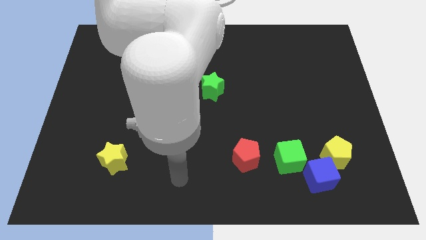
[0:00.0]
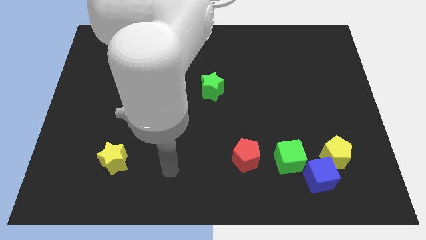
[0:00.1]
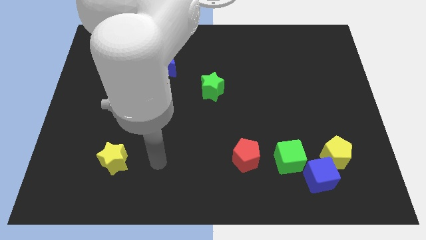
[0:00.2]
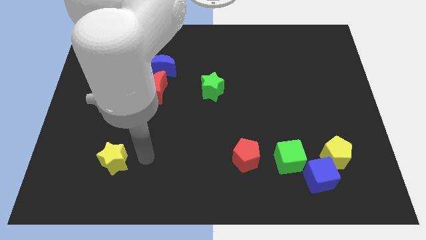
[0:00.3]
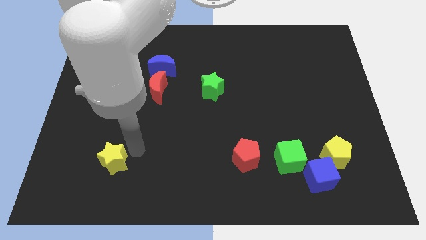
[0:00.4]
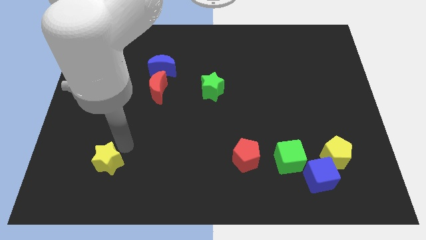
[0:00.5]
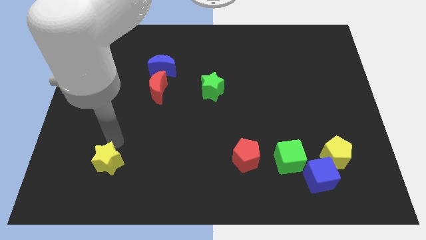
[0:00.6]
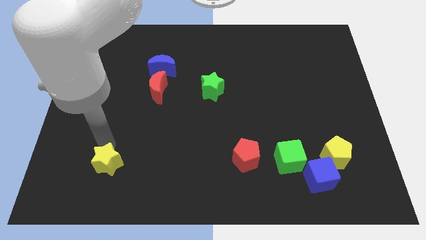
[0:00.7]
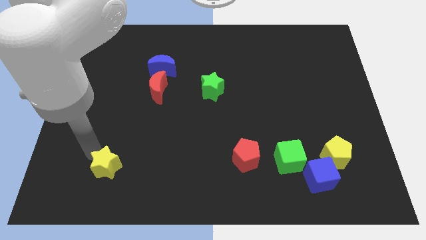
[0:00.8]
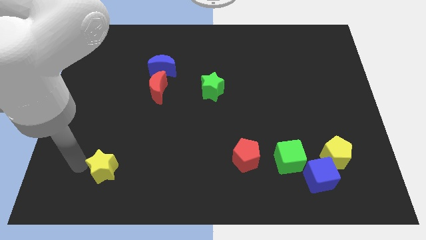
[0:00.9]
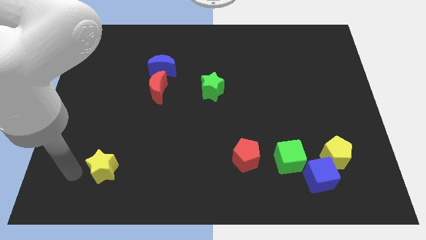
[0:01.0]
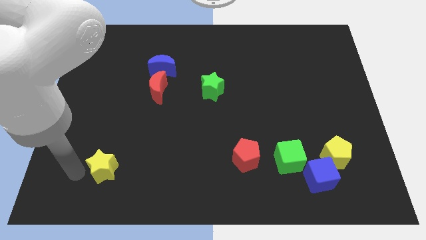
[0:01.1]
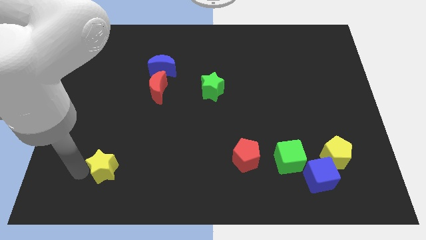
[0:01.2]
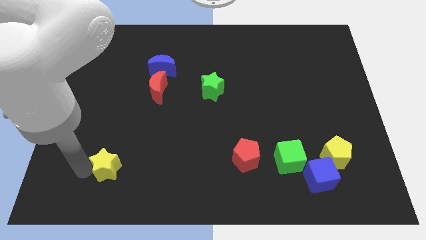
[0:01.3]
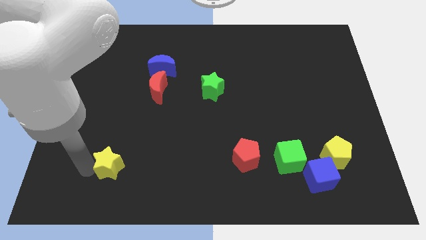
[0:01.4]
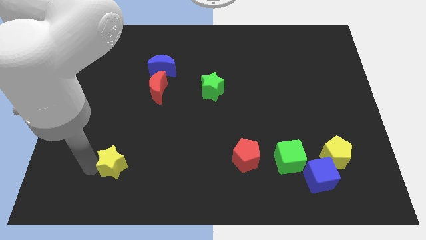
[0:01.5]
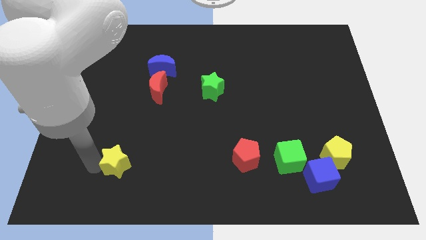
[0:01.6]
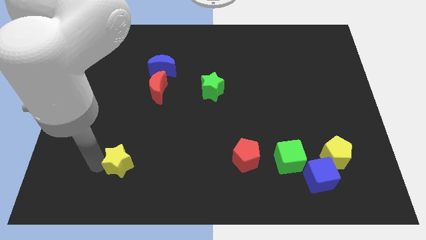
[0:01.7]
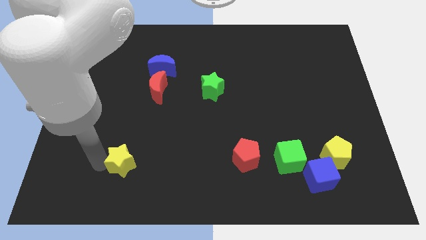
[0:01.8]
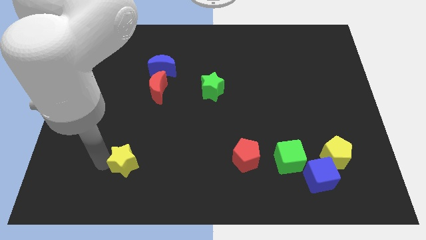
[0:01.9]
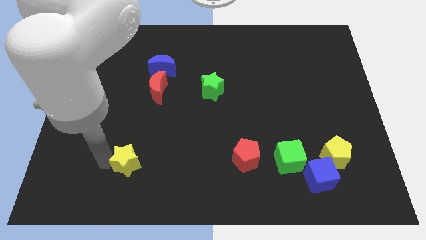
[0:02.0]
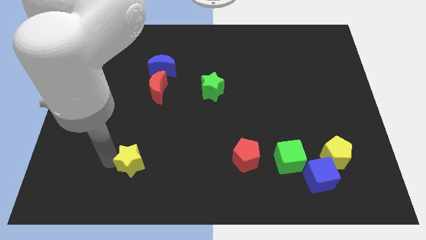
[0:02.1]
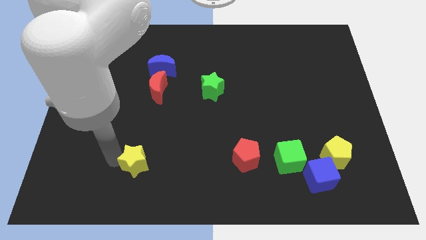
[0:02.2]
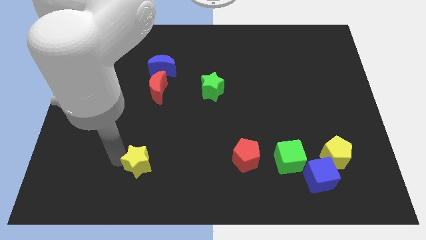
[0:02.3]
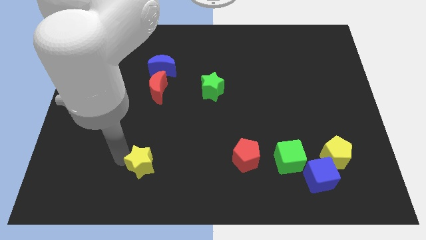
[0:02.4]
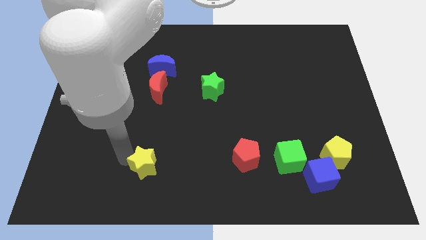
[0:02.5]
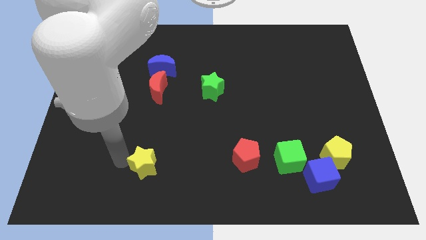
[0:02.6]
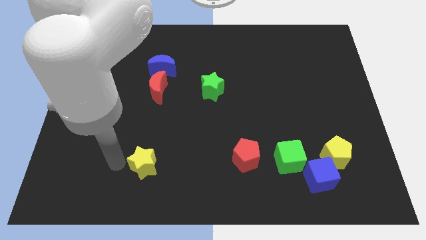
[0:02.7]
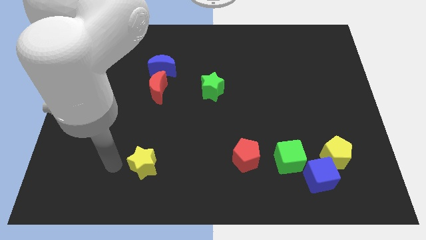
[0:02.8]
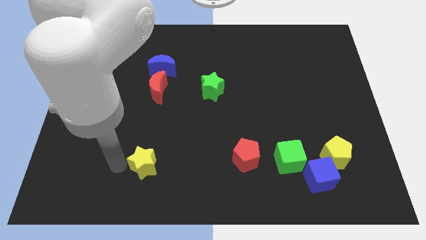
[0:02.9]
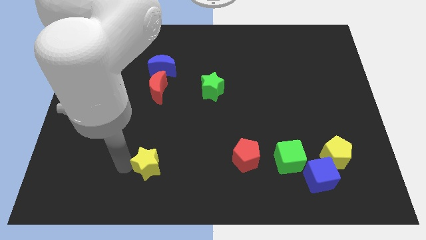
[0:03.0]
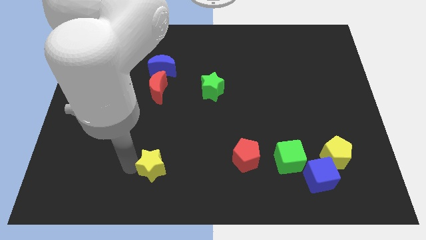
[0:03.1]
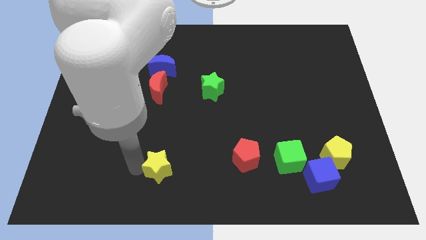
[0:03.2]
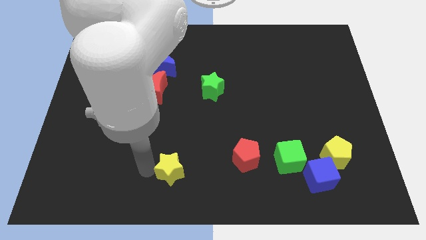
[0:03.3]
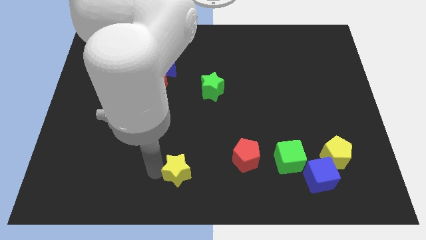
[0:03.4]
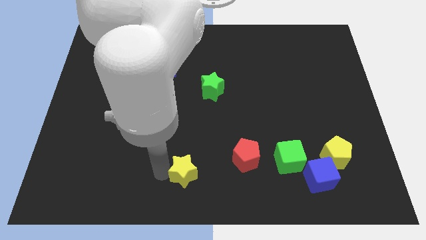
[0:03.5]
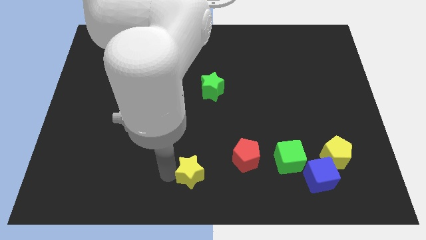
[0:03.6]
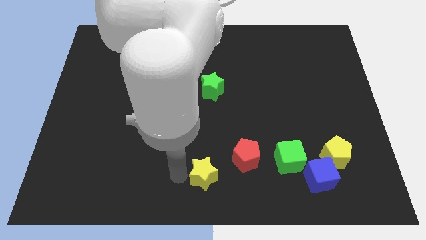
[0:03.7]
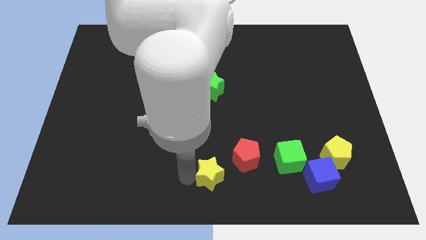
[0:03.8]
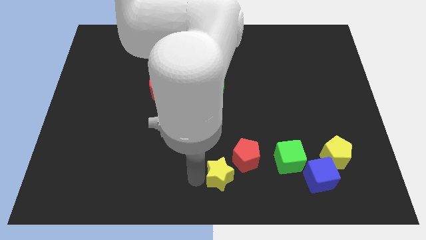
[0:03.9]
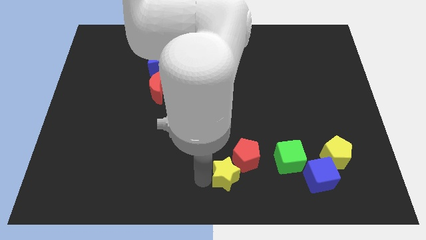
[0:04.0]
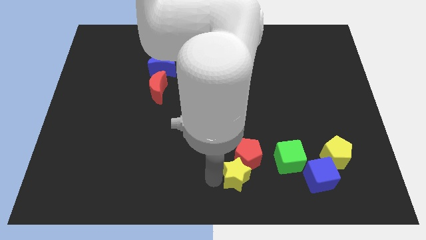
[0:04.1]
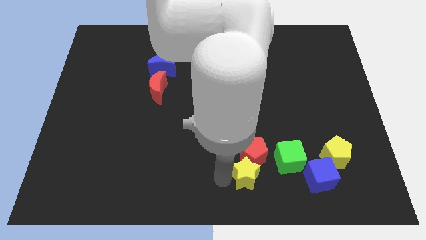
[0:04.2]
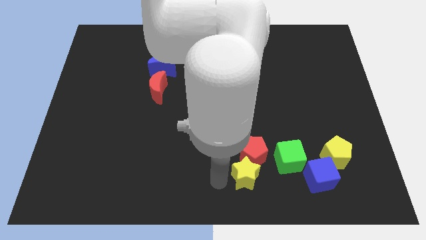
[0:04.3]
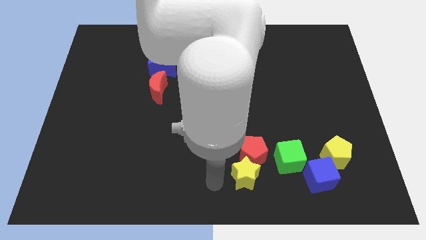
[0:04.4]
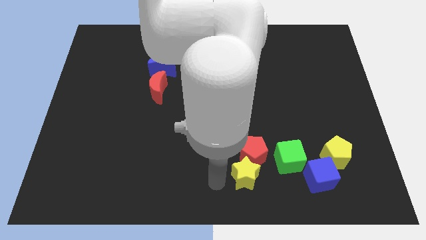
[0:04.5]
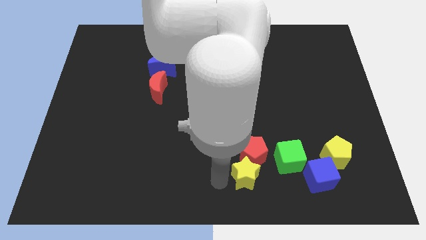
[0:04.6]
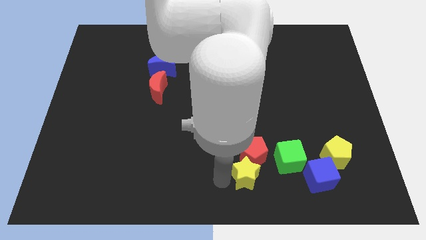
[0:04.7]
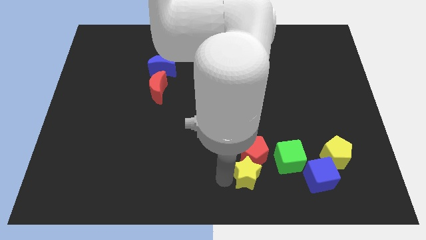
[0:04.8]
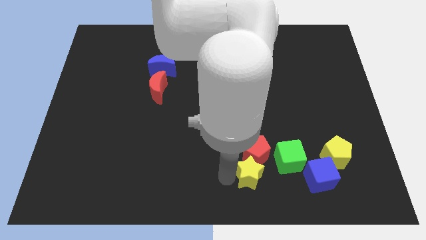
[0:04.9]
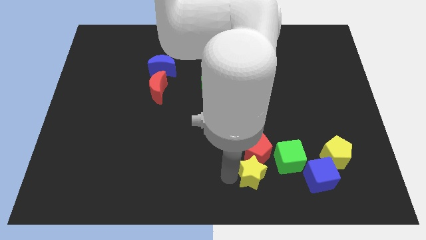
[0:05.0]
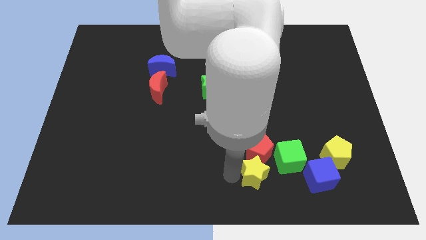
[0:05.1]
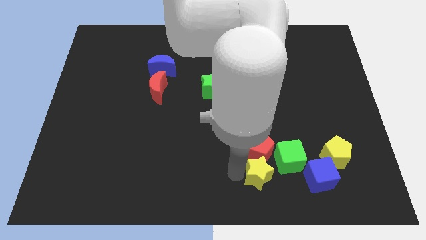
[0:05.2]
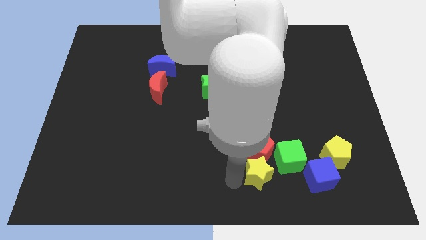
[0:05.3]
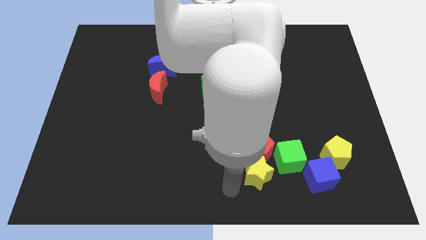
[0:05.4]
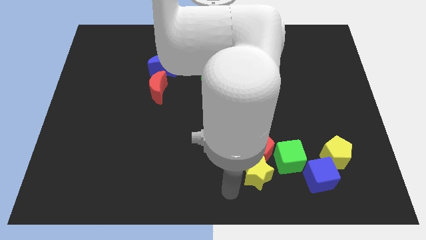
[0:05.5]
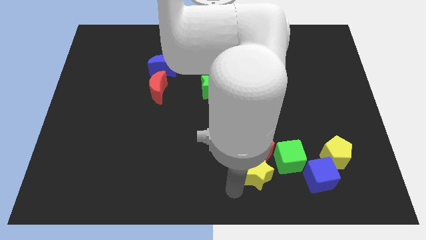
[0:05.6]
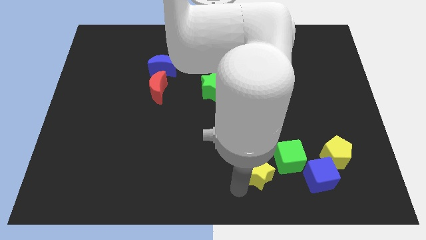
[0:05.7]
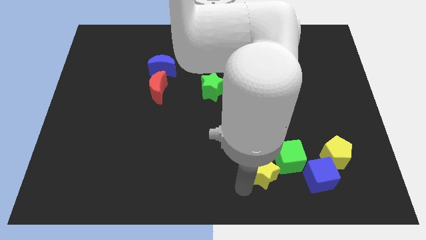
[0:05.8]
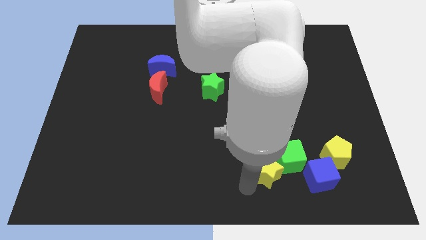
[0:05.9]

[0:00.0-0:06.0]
push the yellow star next to the green cube

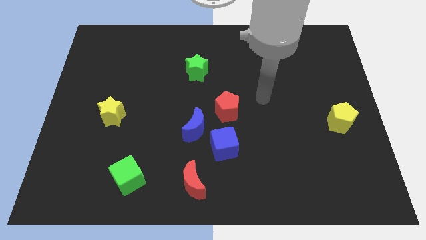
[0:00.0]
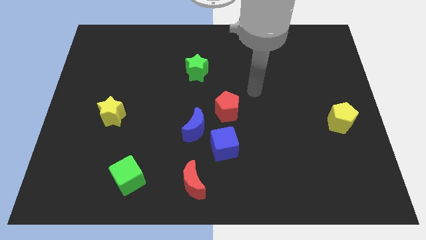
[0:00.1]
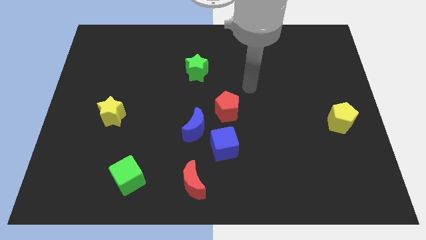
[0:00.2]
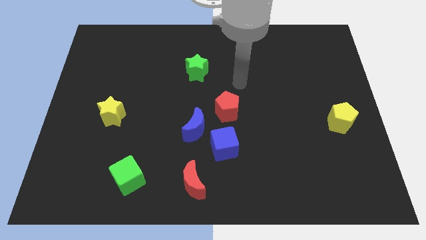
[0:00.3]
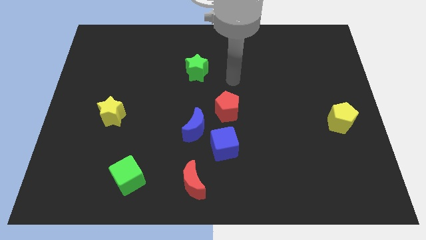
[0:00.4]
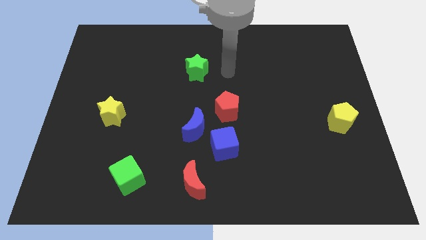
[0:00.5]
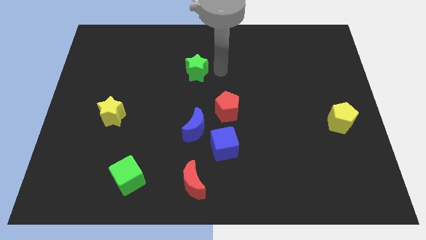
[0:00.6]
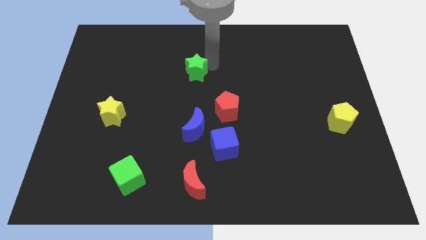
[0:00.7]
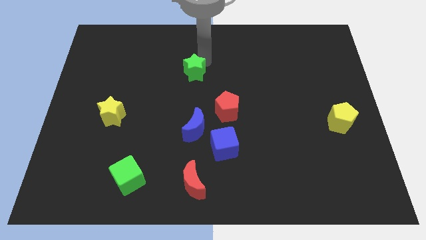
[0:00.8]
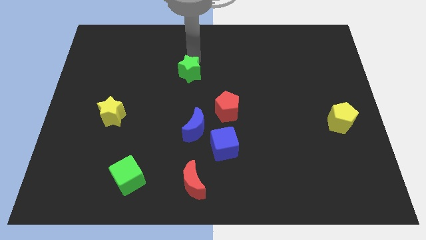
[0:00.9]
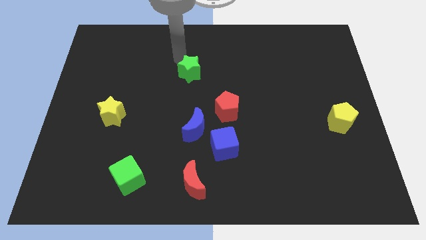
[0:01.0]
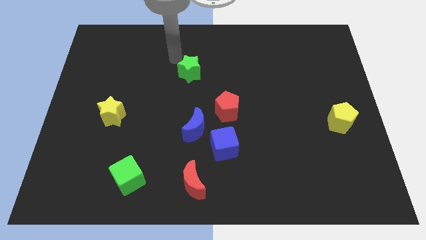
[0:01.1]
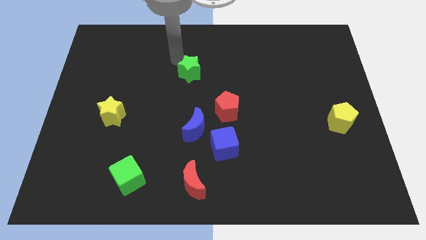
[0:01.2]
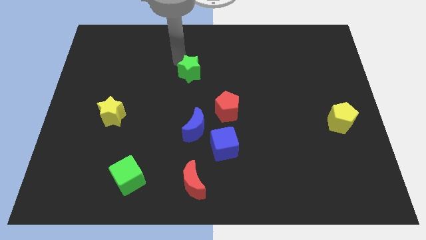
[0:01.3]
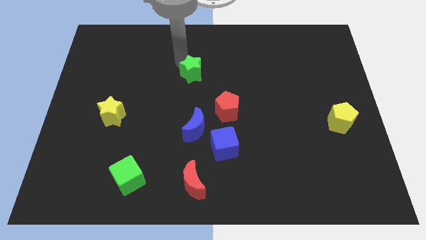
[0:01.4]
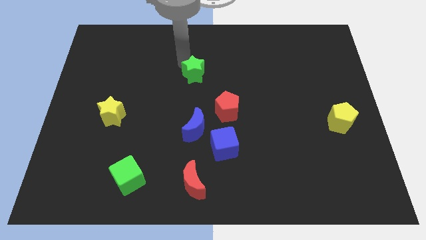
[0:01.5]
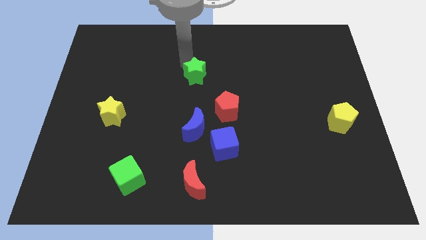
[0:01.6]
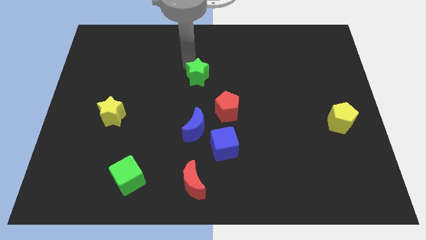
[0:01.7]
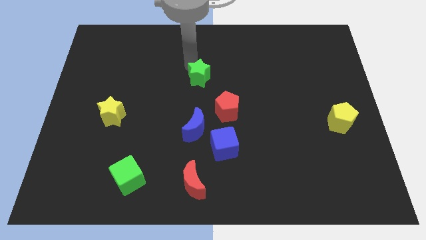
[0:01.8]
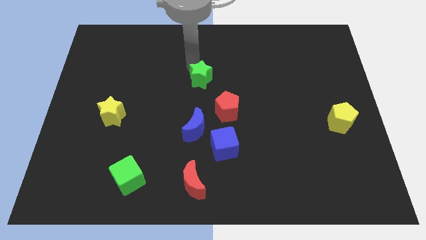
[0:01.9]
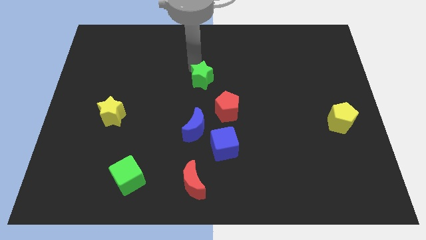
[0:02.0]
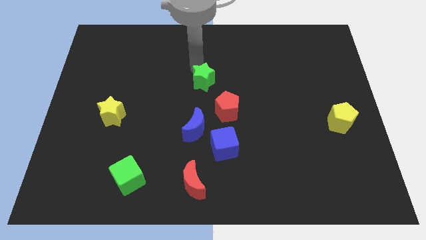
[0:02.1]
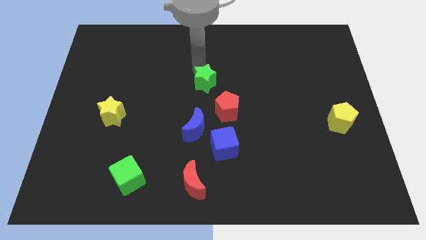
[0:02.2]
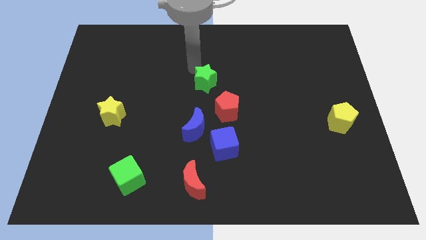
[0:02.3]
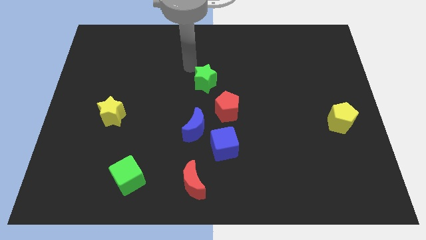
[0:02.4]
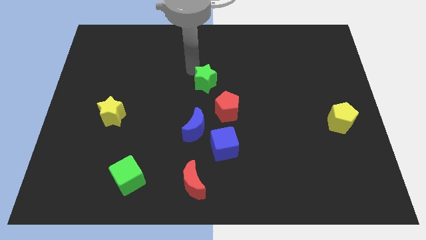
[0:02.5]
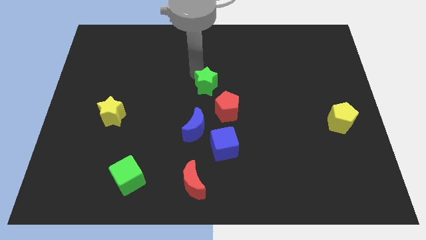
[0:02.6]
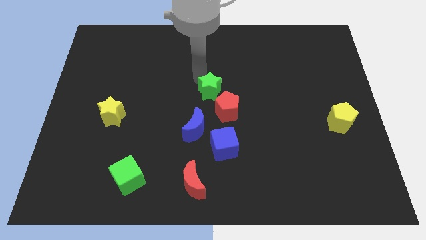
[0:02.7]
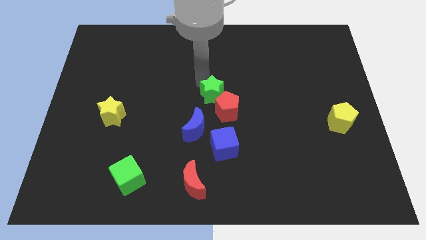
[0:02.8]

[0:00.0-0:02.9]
push the green star close to the red pentagon
